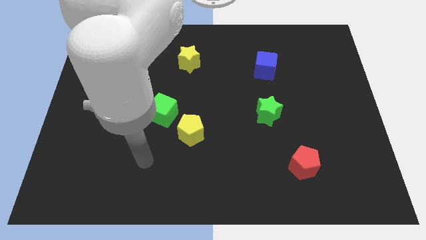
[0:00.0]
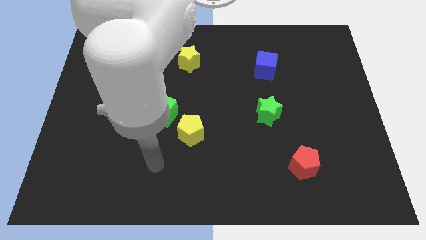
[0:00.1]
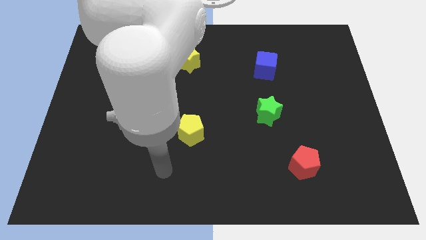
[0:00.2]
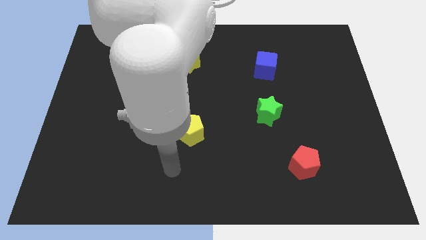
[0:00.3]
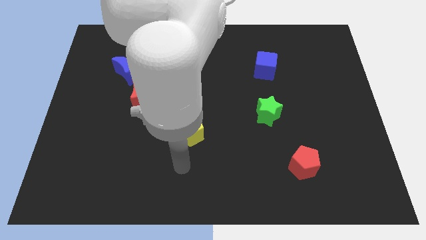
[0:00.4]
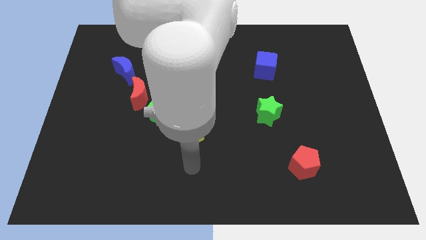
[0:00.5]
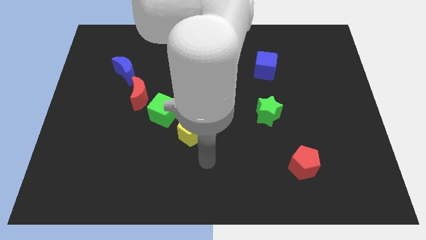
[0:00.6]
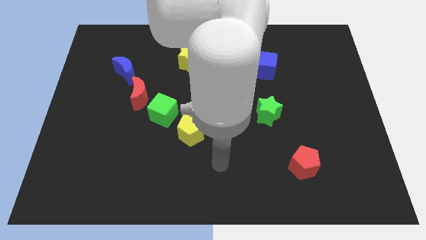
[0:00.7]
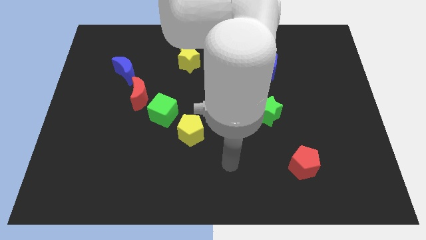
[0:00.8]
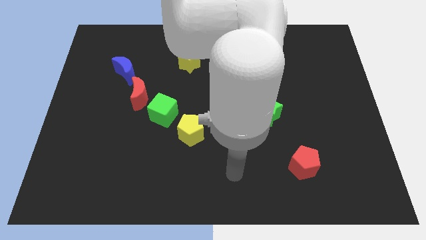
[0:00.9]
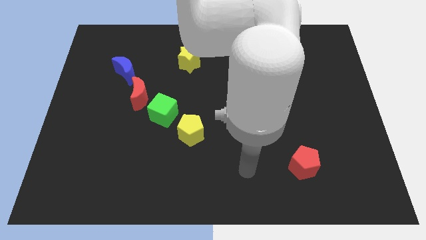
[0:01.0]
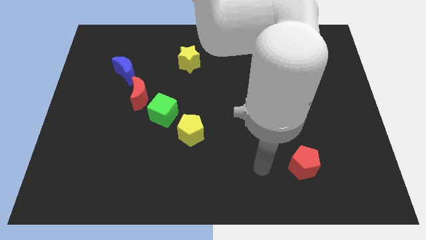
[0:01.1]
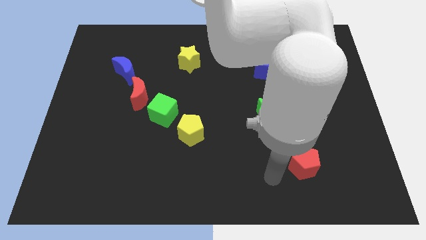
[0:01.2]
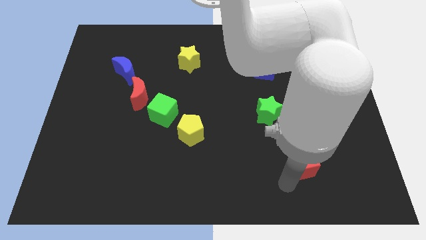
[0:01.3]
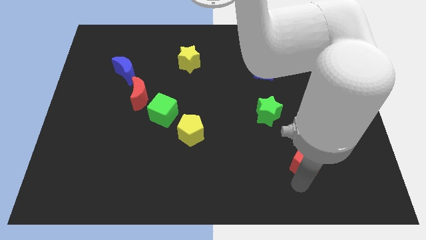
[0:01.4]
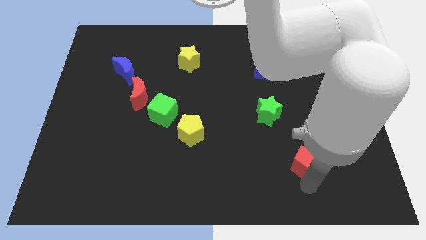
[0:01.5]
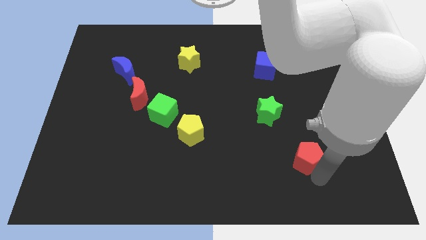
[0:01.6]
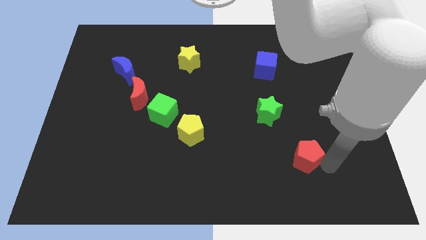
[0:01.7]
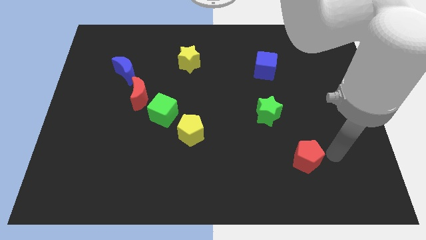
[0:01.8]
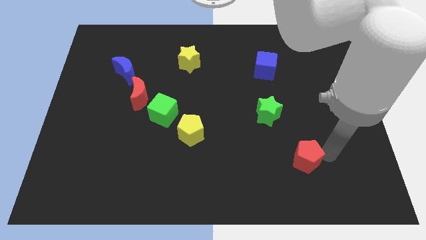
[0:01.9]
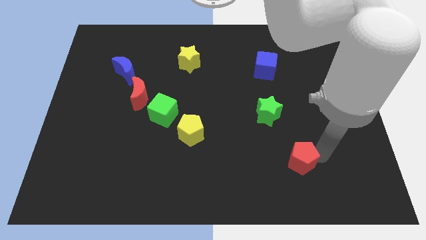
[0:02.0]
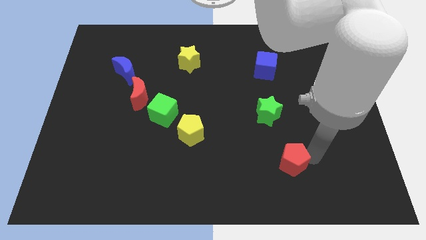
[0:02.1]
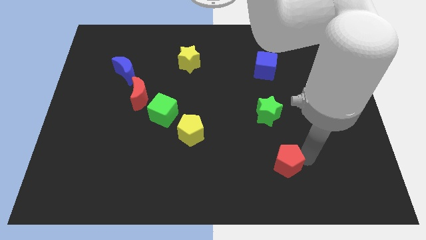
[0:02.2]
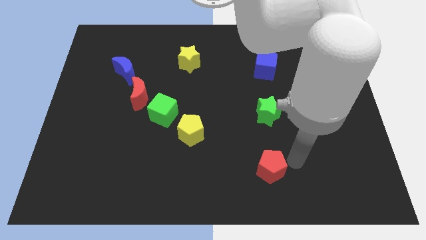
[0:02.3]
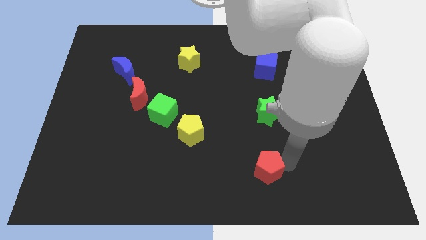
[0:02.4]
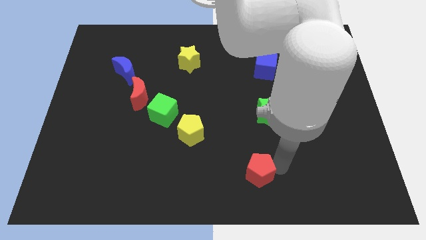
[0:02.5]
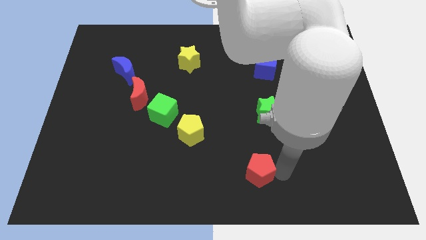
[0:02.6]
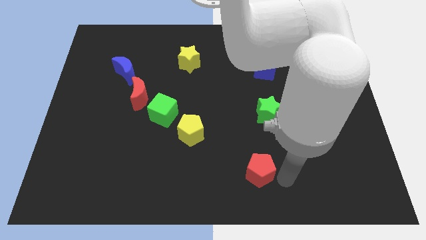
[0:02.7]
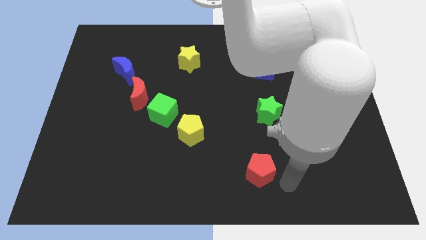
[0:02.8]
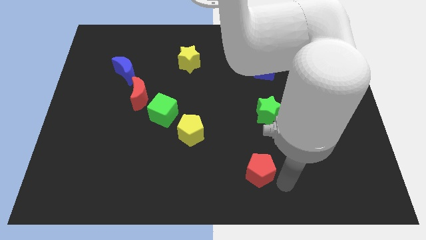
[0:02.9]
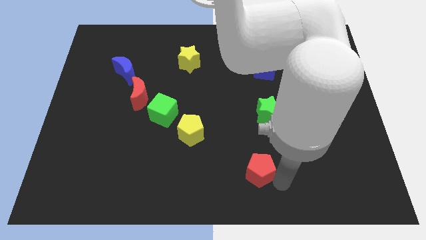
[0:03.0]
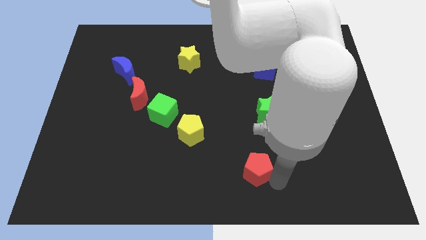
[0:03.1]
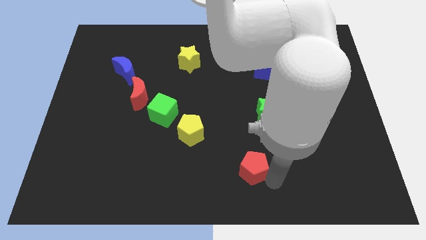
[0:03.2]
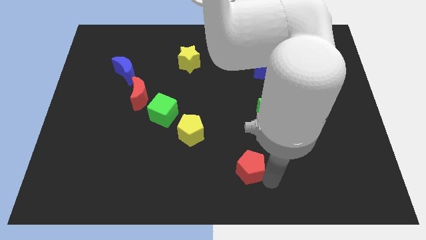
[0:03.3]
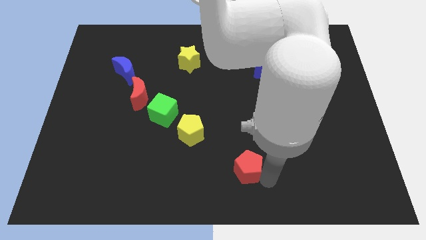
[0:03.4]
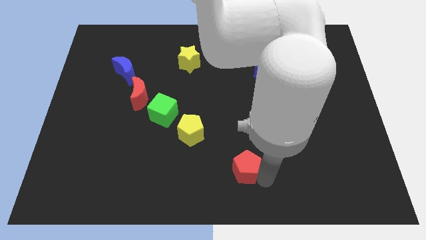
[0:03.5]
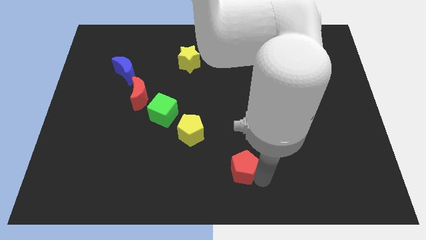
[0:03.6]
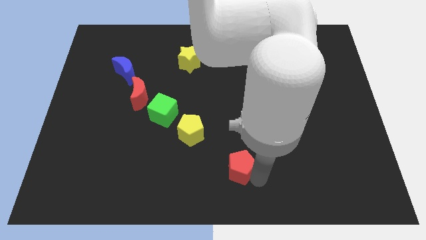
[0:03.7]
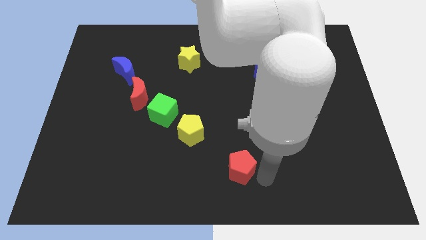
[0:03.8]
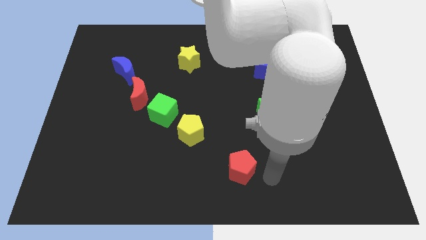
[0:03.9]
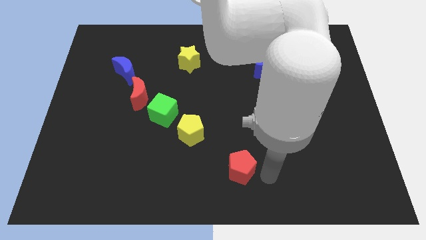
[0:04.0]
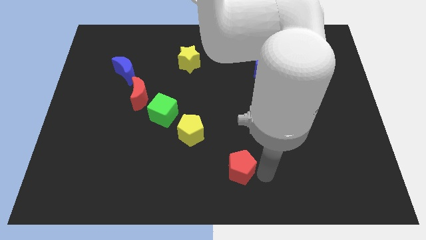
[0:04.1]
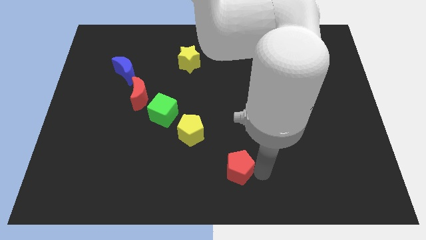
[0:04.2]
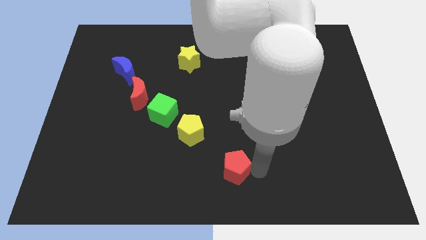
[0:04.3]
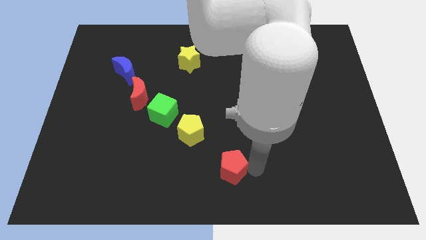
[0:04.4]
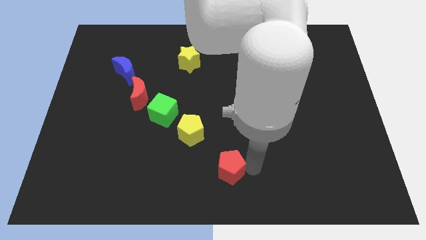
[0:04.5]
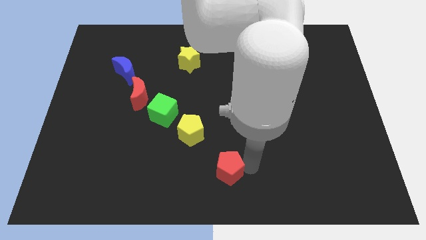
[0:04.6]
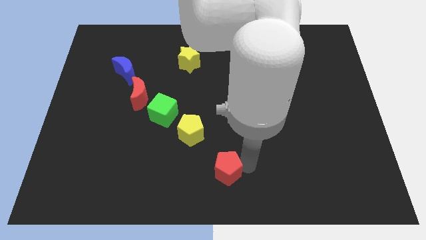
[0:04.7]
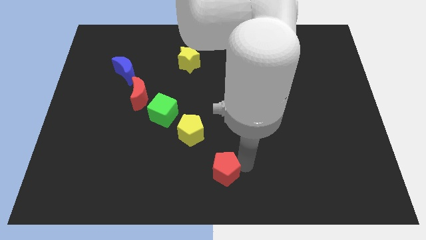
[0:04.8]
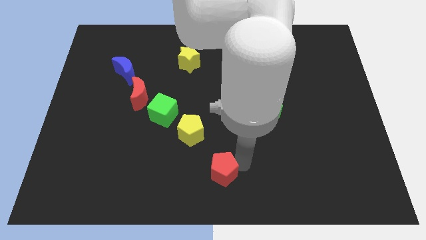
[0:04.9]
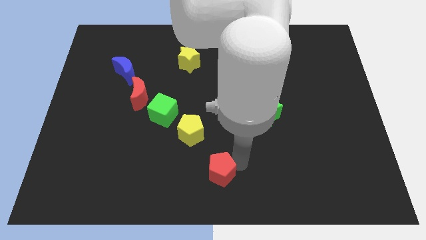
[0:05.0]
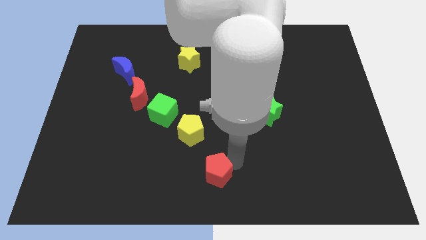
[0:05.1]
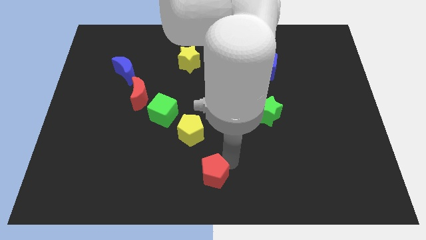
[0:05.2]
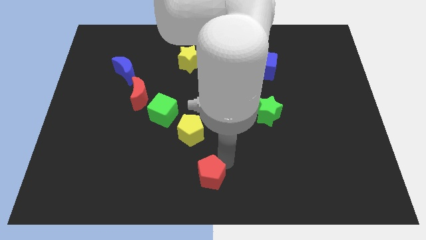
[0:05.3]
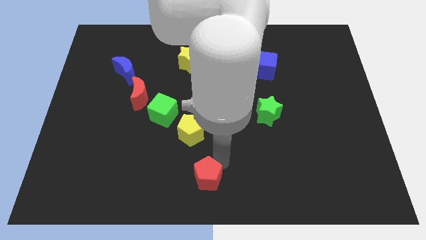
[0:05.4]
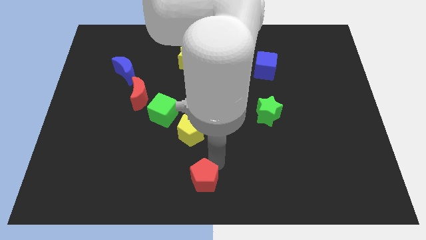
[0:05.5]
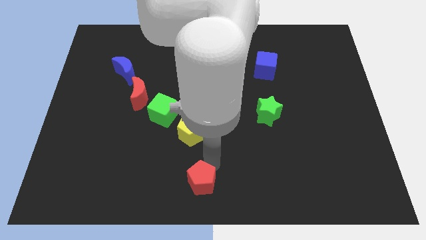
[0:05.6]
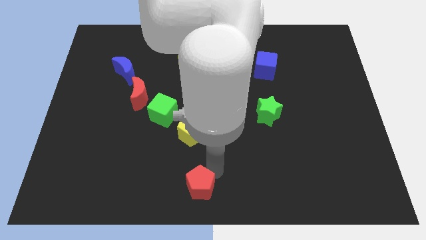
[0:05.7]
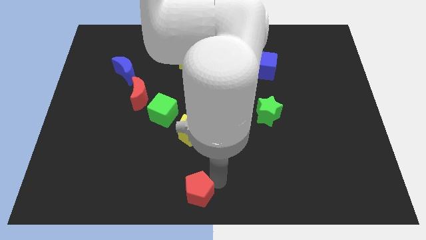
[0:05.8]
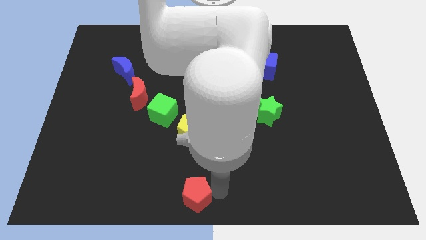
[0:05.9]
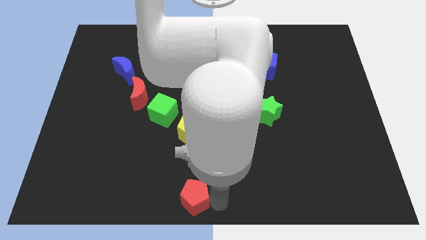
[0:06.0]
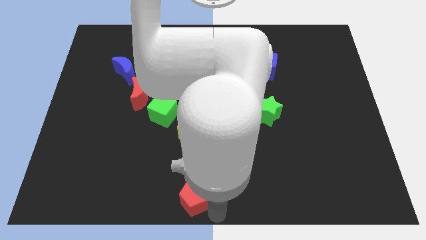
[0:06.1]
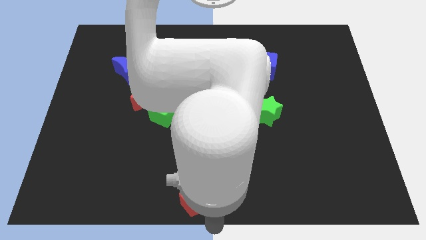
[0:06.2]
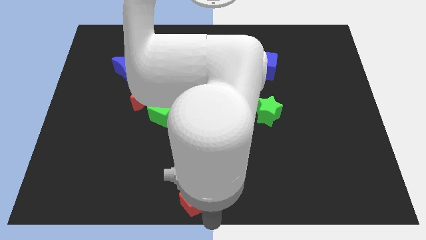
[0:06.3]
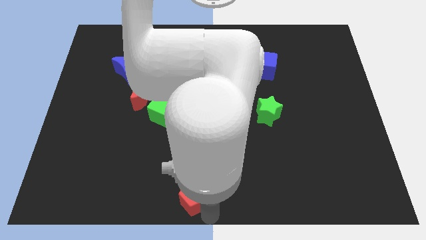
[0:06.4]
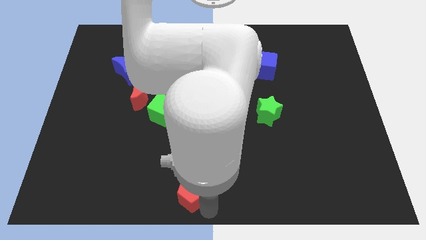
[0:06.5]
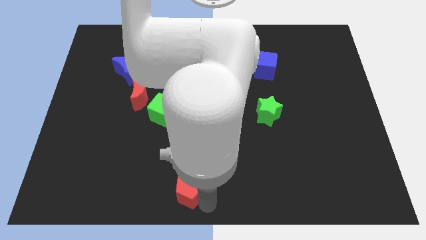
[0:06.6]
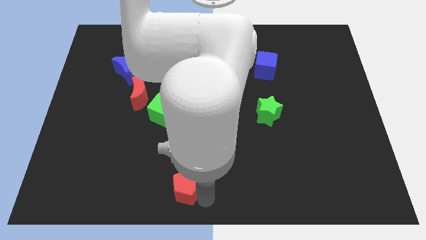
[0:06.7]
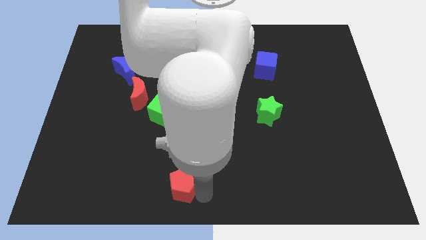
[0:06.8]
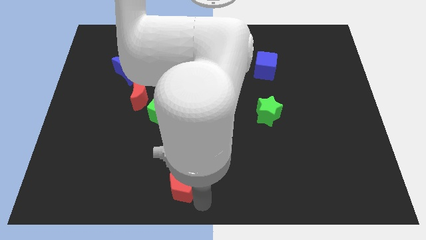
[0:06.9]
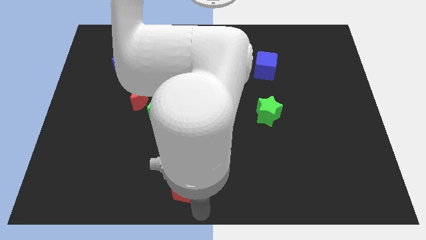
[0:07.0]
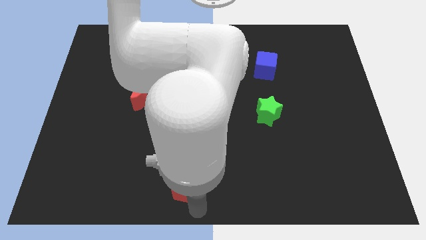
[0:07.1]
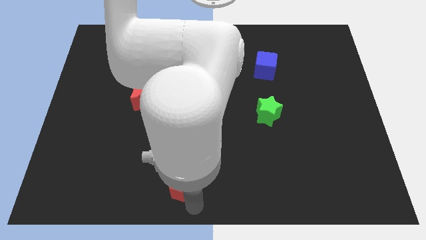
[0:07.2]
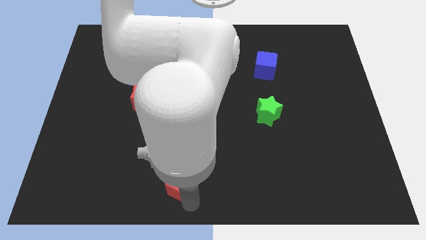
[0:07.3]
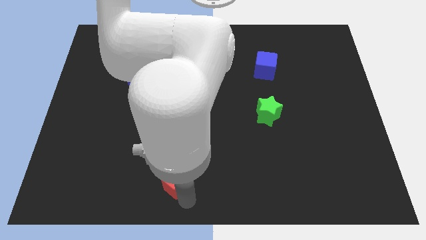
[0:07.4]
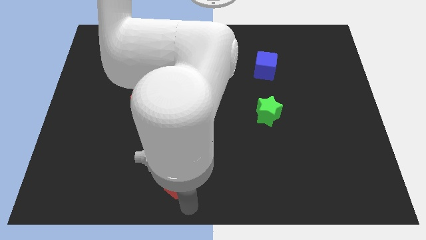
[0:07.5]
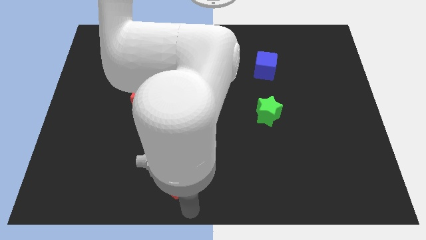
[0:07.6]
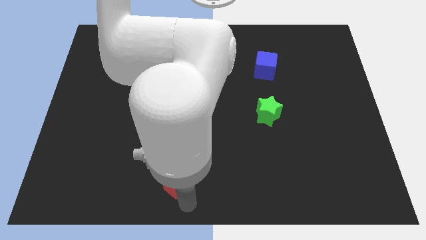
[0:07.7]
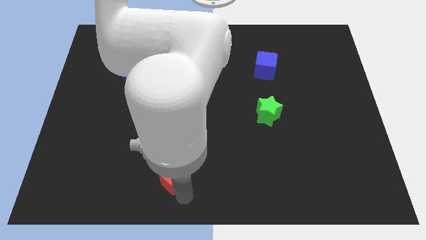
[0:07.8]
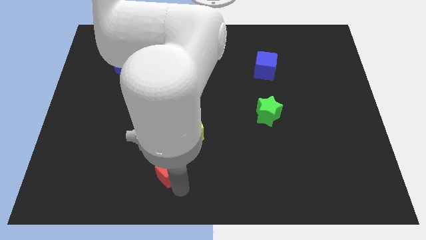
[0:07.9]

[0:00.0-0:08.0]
slide the red pentagon diagonally down and to the left of the yellow pentagon
